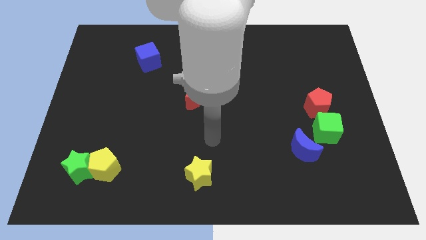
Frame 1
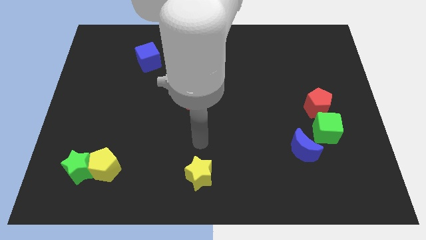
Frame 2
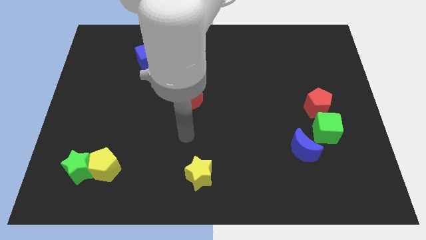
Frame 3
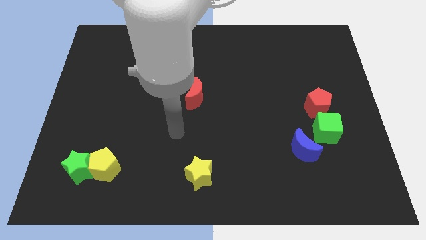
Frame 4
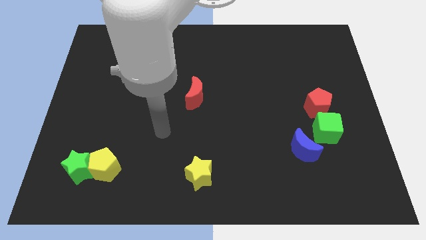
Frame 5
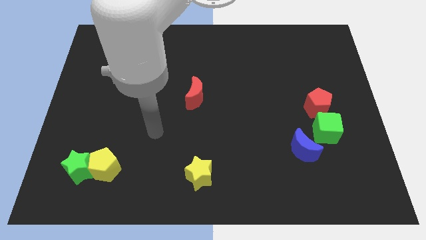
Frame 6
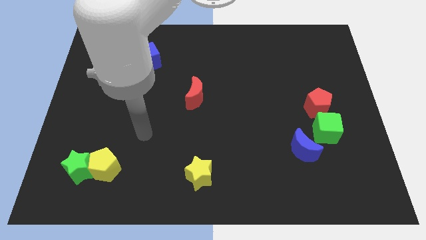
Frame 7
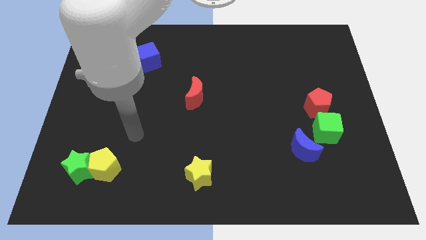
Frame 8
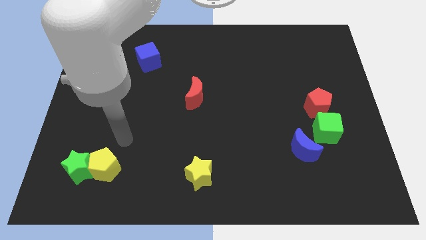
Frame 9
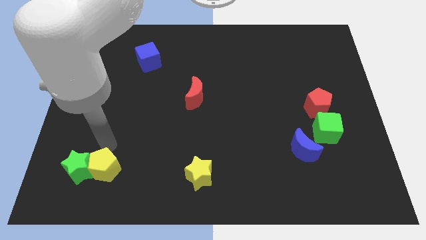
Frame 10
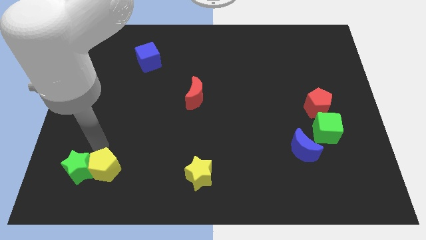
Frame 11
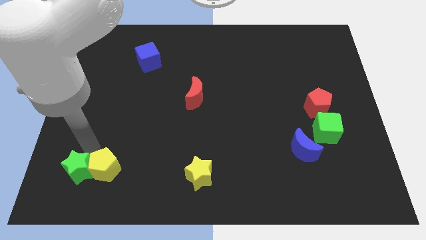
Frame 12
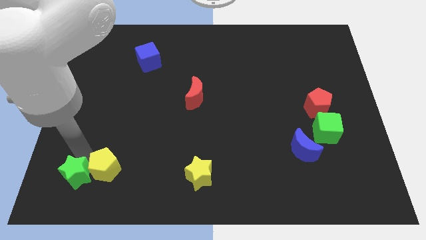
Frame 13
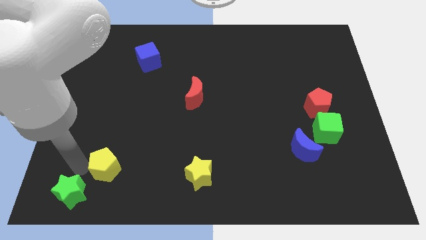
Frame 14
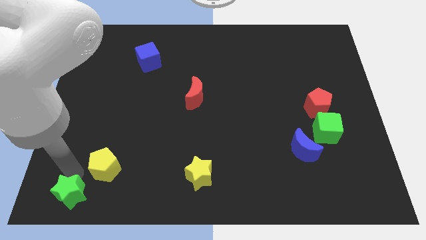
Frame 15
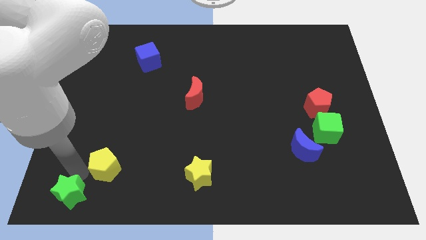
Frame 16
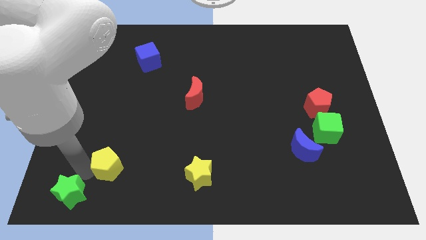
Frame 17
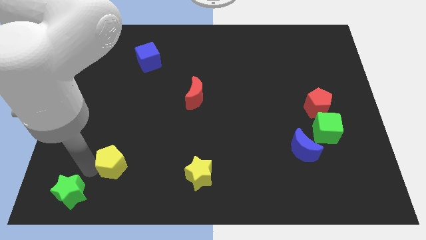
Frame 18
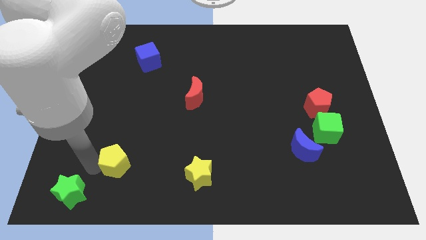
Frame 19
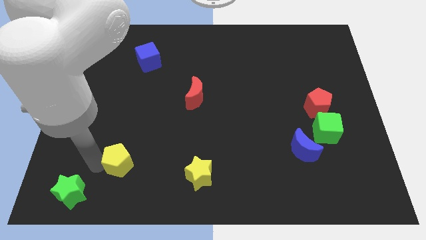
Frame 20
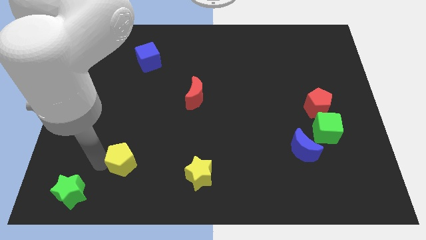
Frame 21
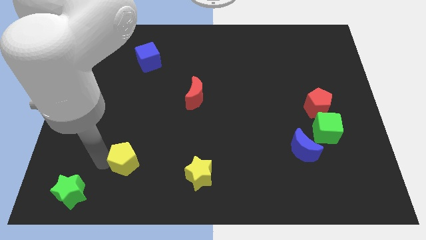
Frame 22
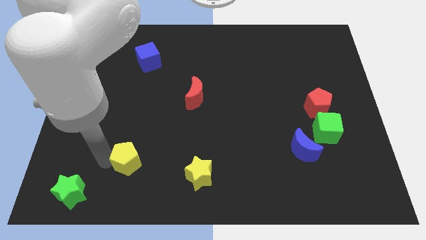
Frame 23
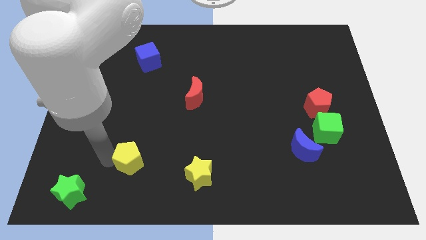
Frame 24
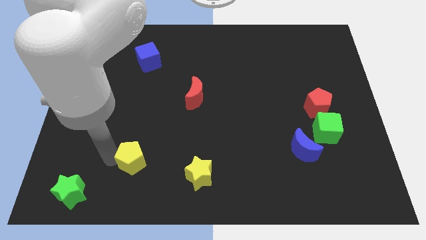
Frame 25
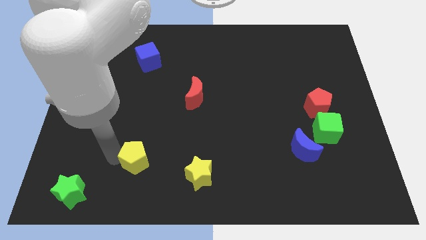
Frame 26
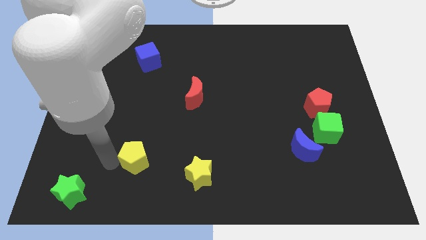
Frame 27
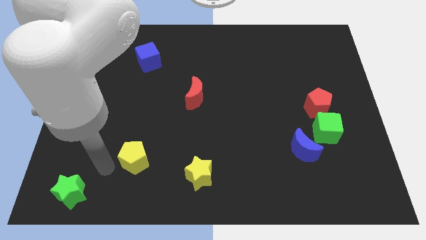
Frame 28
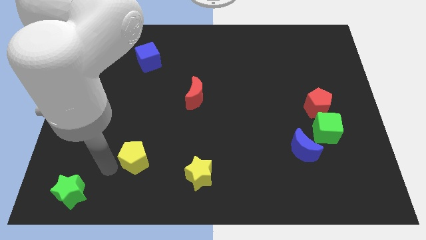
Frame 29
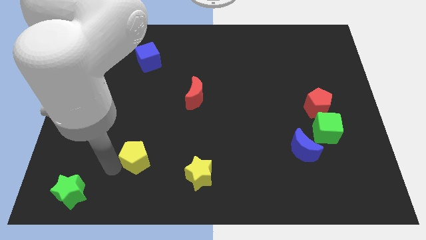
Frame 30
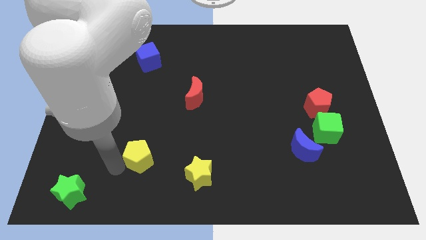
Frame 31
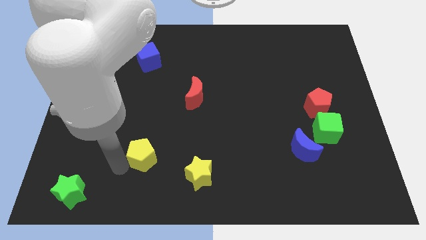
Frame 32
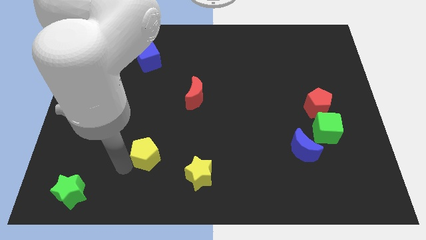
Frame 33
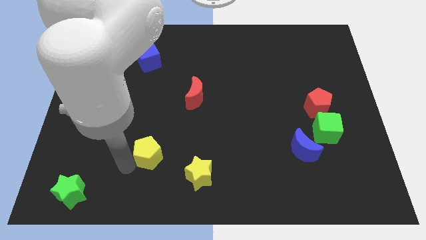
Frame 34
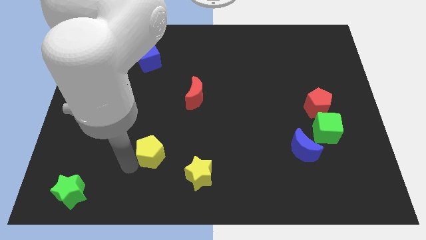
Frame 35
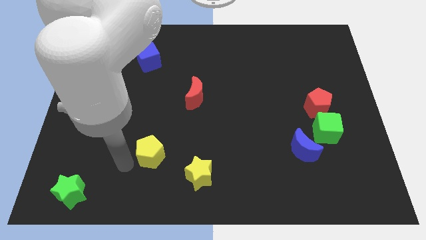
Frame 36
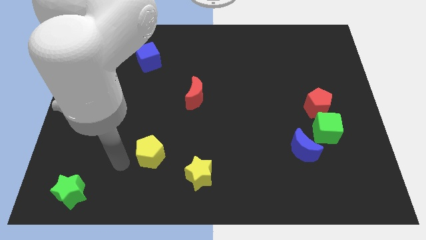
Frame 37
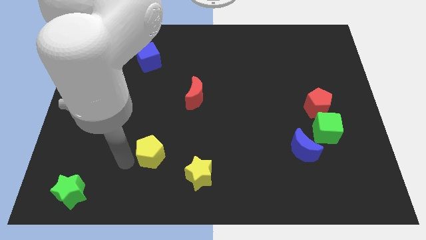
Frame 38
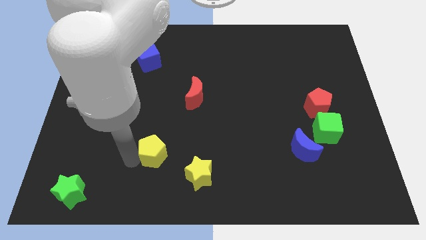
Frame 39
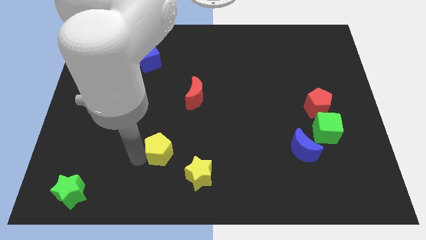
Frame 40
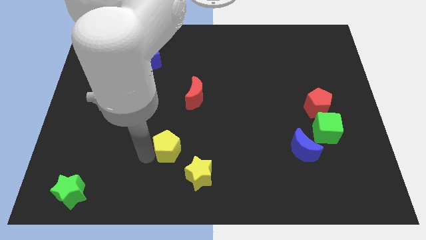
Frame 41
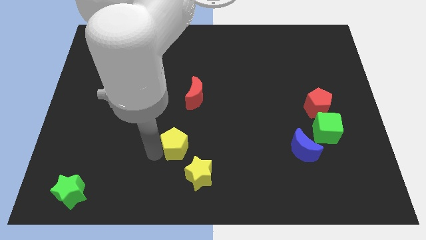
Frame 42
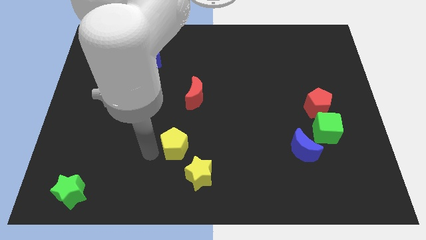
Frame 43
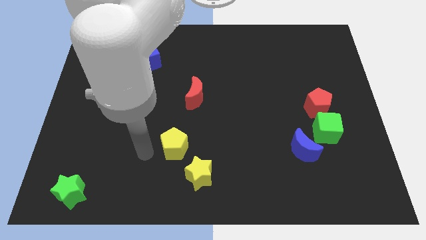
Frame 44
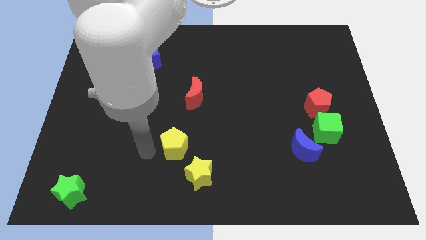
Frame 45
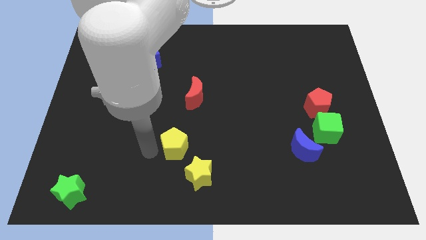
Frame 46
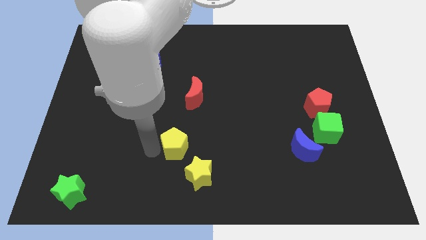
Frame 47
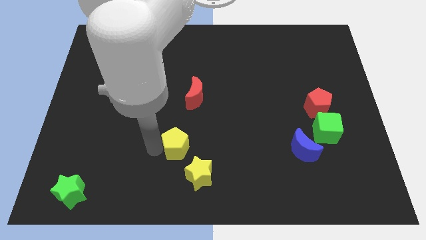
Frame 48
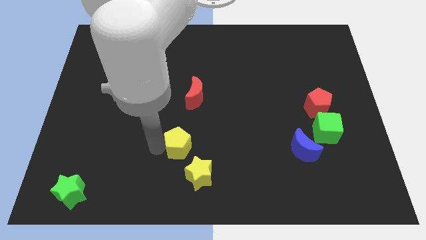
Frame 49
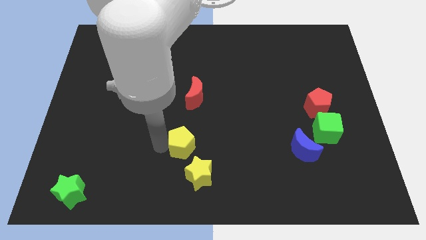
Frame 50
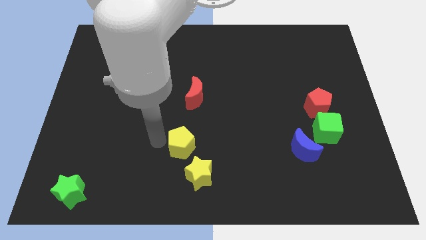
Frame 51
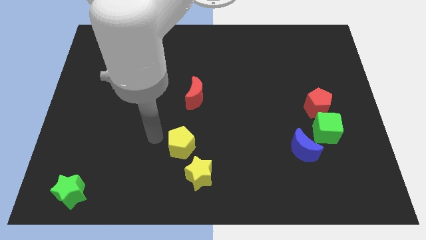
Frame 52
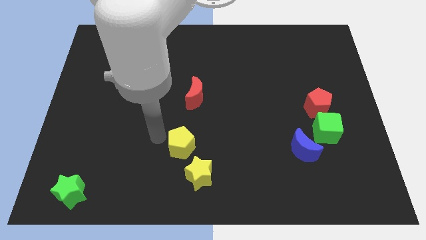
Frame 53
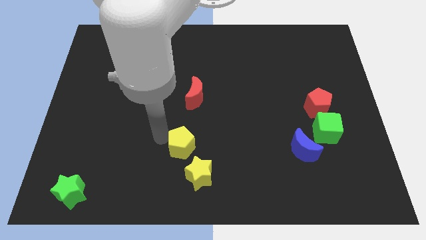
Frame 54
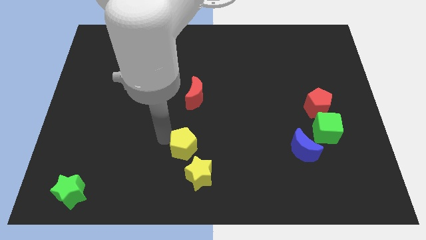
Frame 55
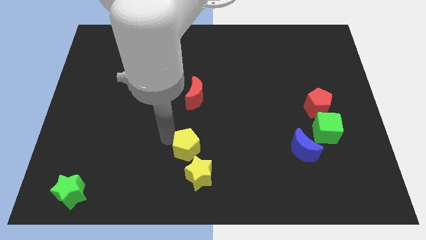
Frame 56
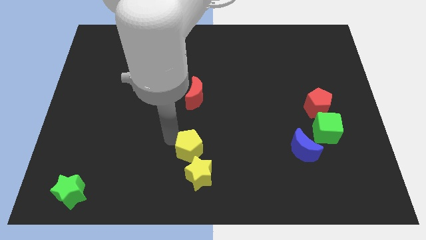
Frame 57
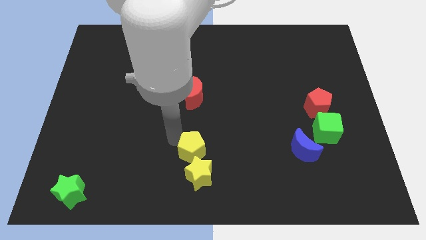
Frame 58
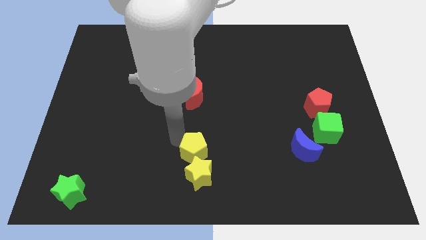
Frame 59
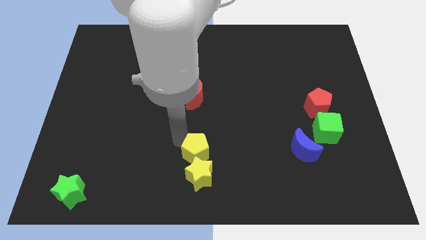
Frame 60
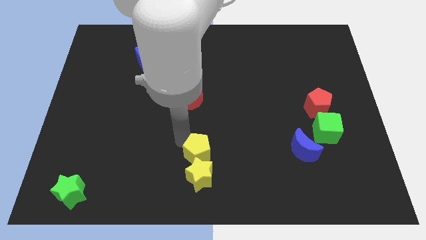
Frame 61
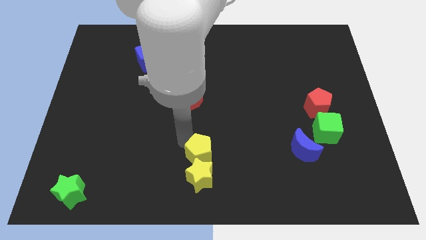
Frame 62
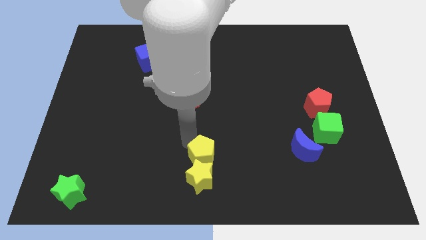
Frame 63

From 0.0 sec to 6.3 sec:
move the yellow pentagon to the right

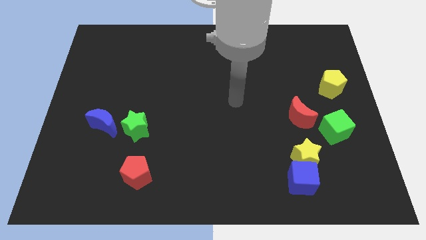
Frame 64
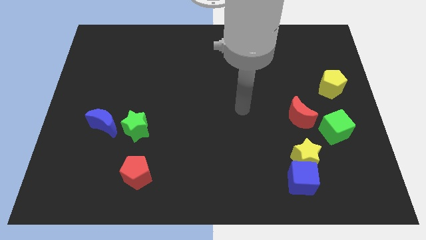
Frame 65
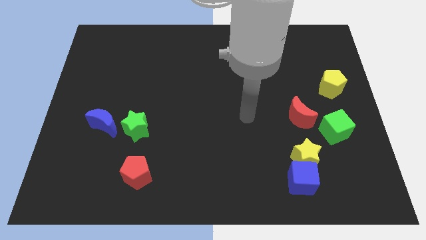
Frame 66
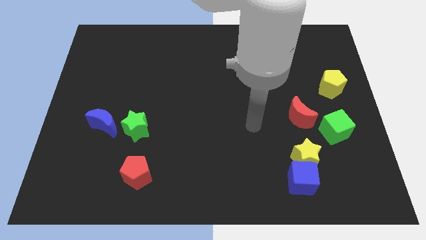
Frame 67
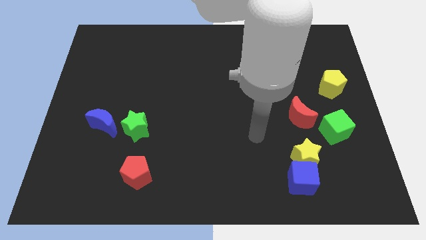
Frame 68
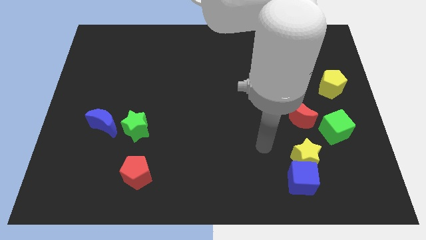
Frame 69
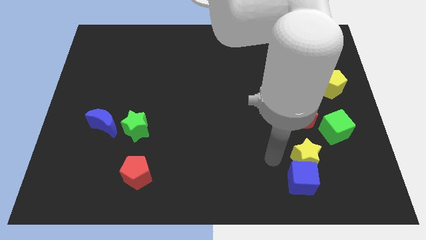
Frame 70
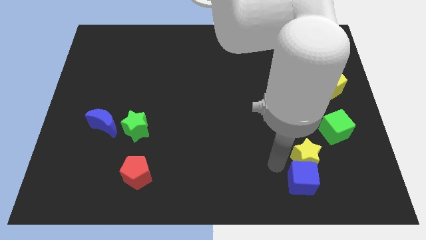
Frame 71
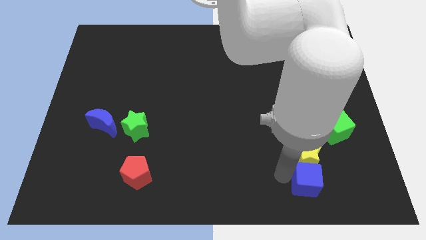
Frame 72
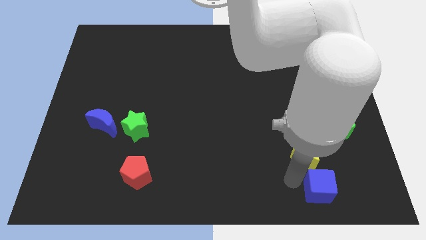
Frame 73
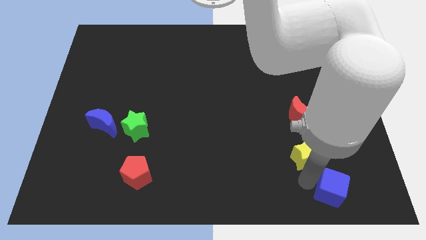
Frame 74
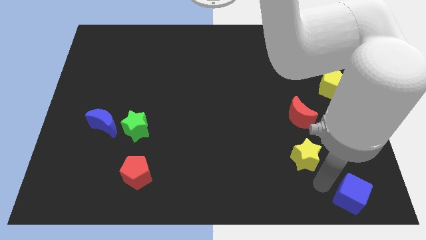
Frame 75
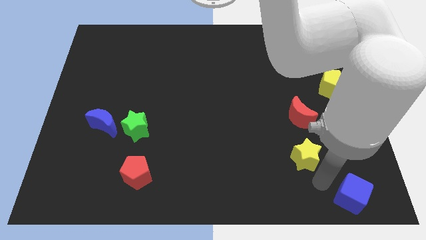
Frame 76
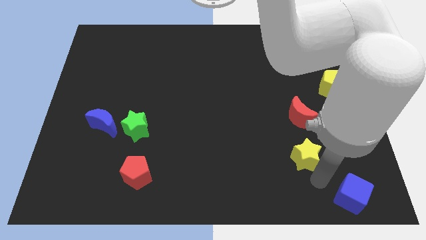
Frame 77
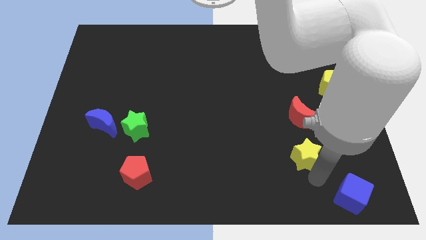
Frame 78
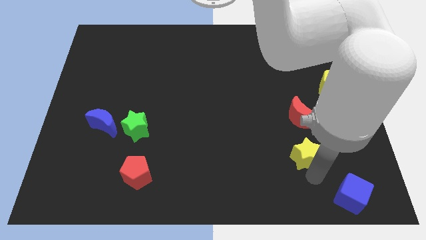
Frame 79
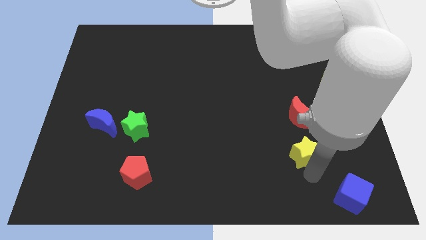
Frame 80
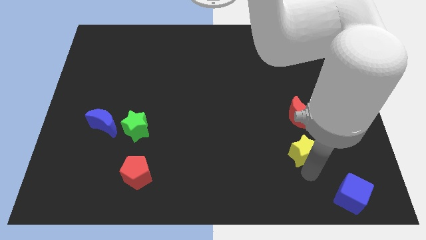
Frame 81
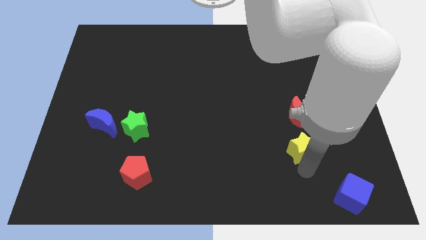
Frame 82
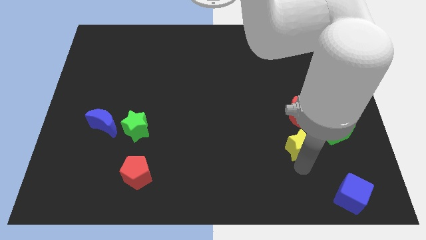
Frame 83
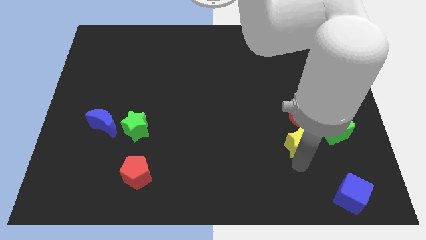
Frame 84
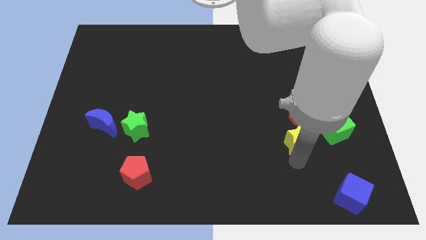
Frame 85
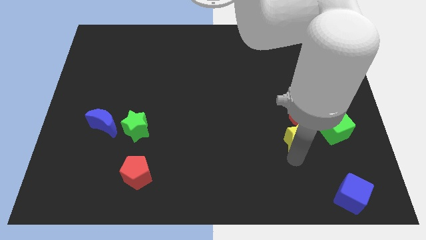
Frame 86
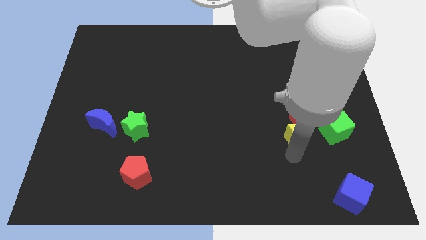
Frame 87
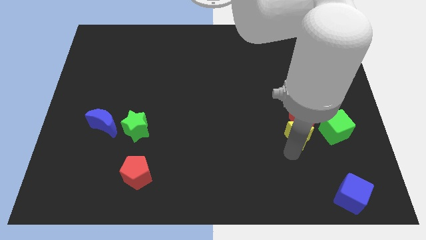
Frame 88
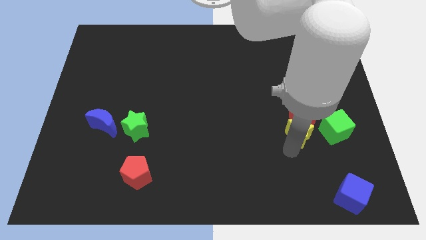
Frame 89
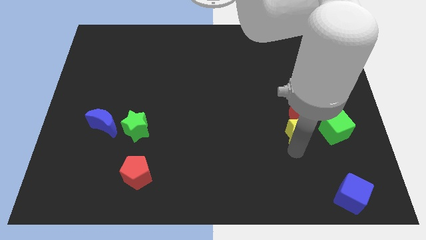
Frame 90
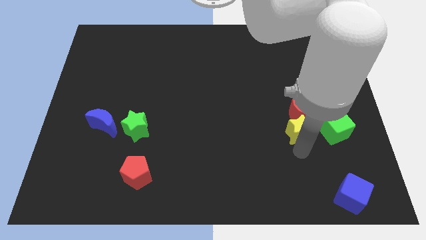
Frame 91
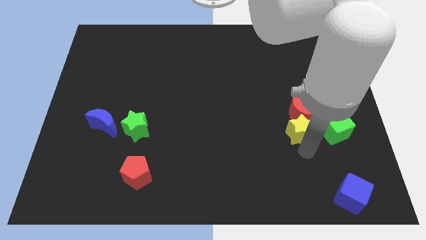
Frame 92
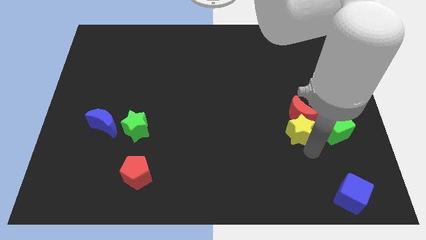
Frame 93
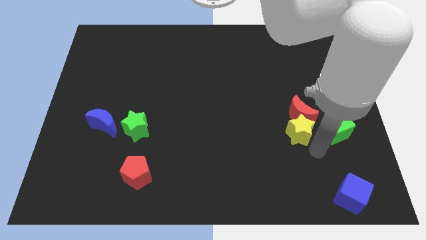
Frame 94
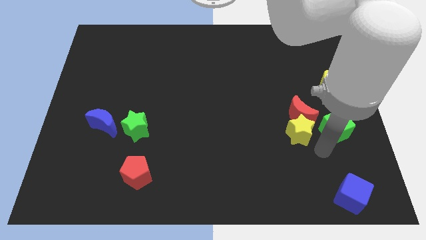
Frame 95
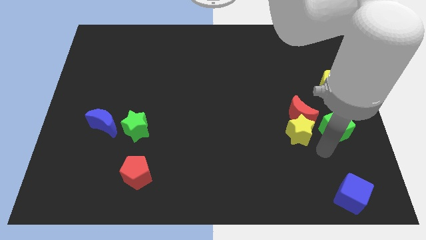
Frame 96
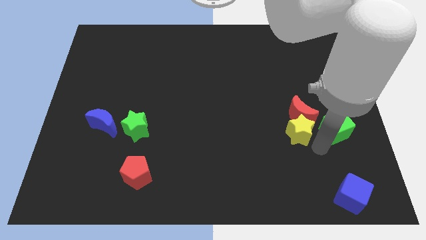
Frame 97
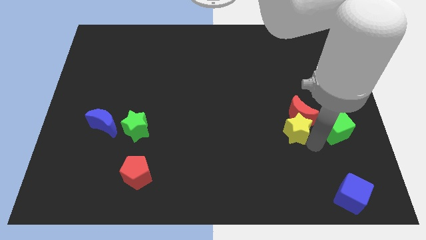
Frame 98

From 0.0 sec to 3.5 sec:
push the yellow star up slightly
